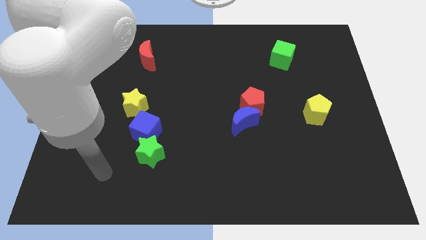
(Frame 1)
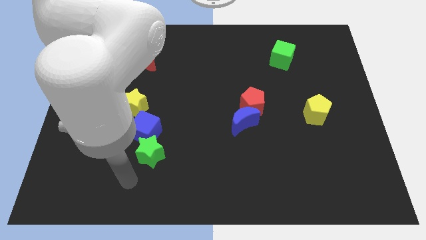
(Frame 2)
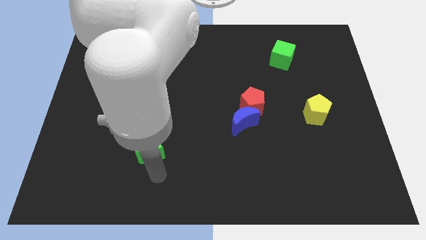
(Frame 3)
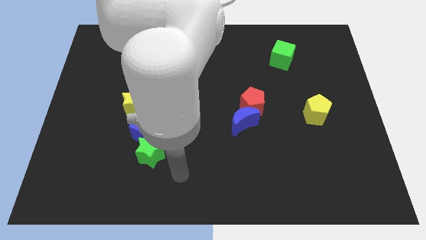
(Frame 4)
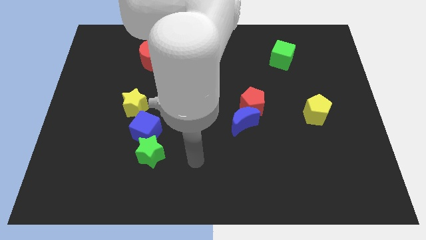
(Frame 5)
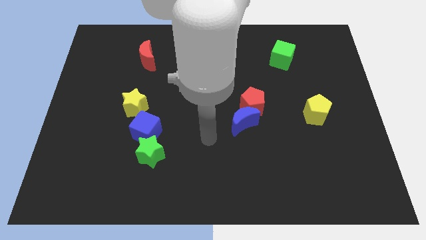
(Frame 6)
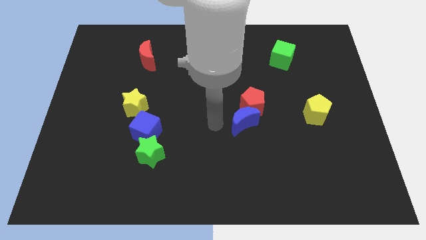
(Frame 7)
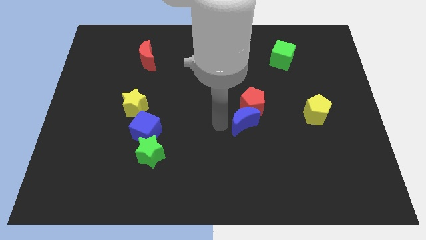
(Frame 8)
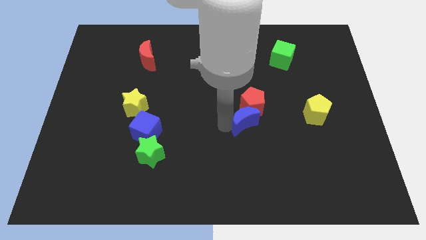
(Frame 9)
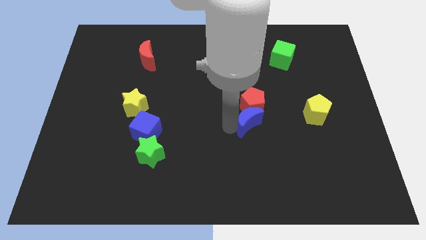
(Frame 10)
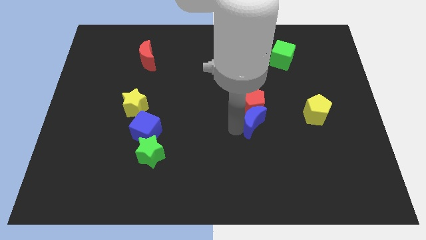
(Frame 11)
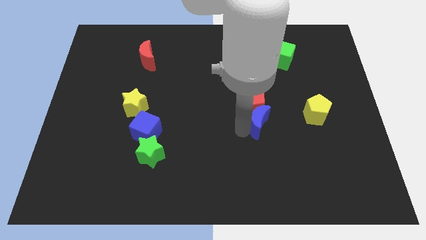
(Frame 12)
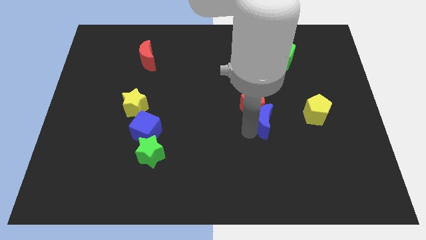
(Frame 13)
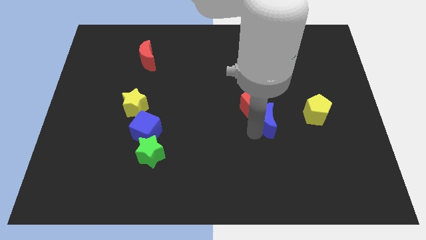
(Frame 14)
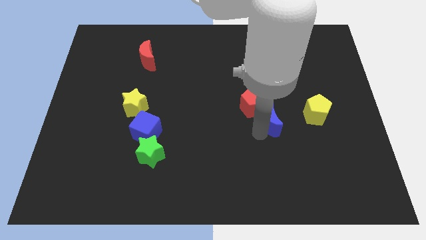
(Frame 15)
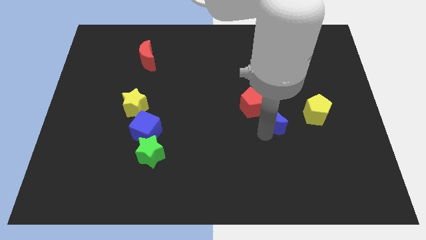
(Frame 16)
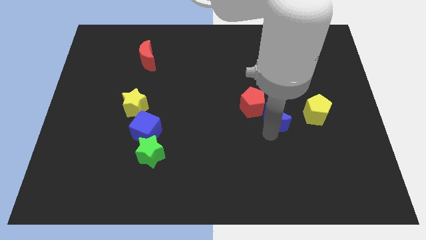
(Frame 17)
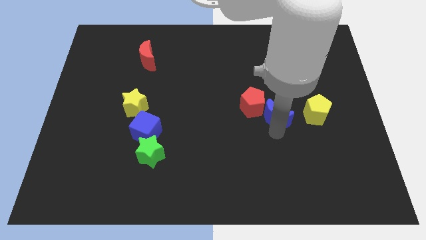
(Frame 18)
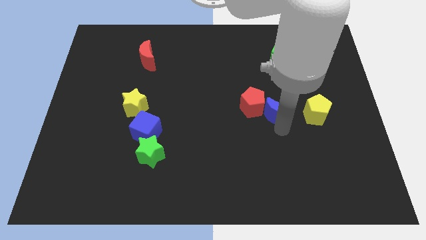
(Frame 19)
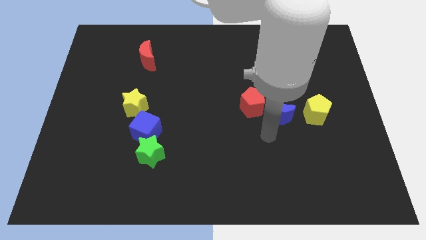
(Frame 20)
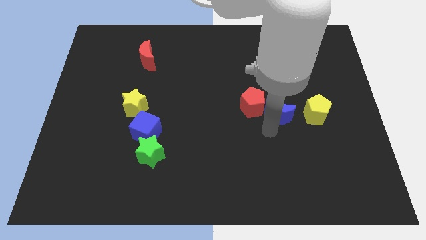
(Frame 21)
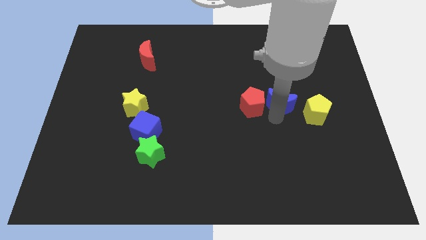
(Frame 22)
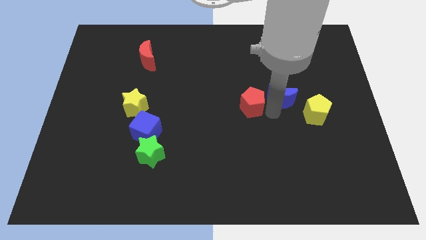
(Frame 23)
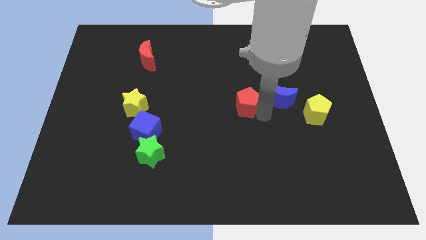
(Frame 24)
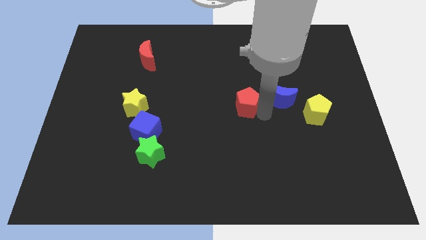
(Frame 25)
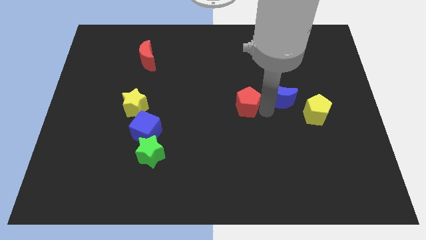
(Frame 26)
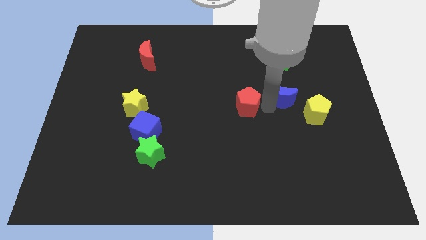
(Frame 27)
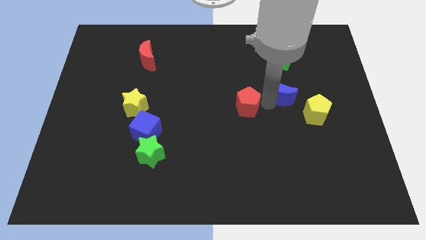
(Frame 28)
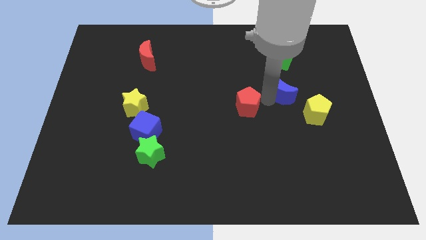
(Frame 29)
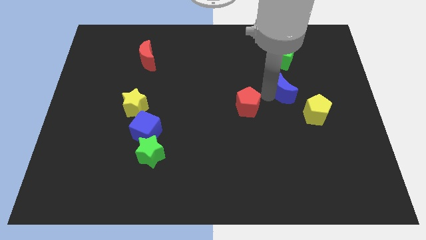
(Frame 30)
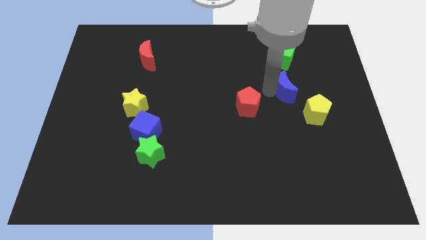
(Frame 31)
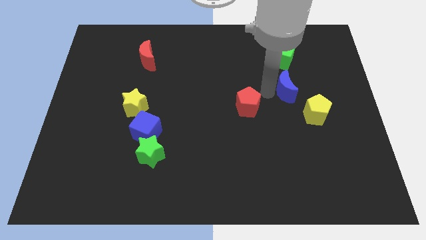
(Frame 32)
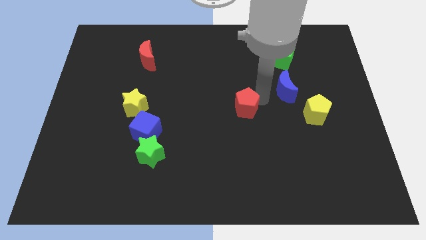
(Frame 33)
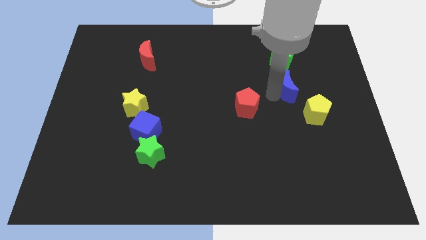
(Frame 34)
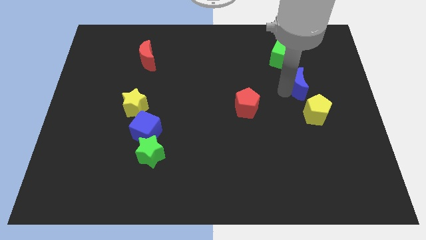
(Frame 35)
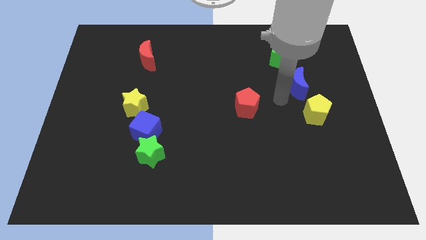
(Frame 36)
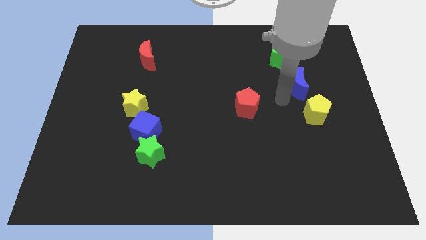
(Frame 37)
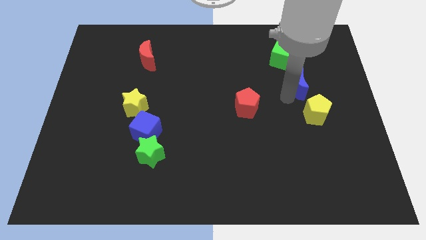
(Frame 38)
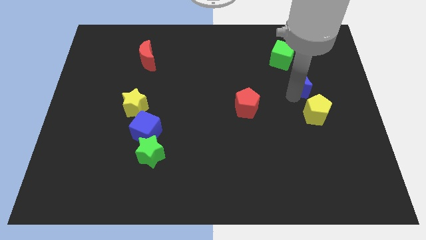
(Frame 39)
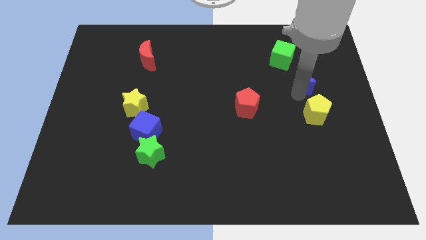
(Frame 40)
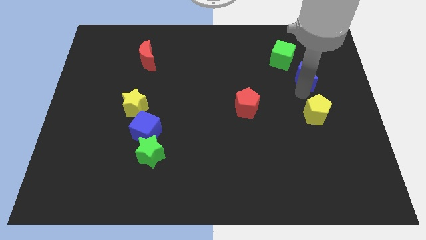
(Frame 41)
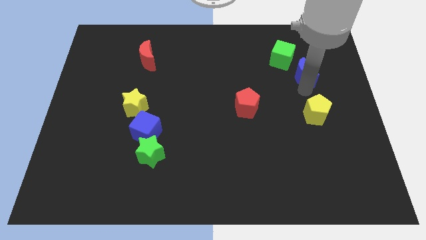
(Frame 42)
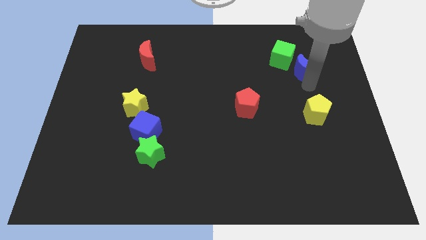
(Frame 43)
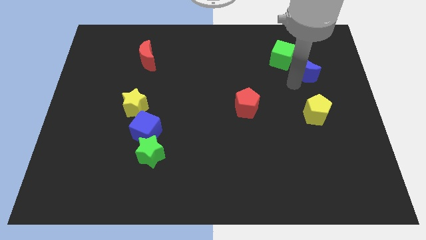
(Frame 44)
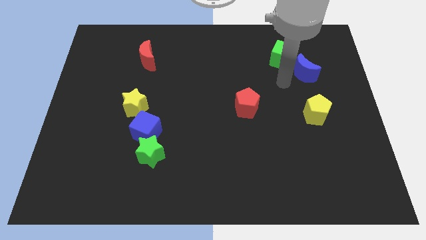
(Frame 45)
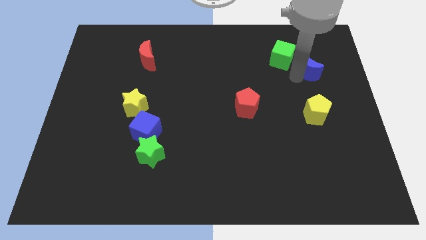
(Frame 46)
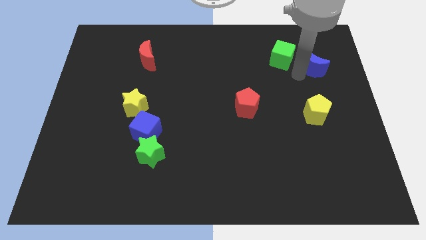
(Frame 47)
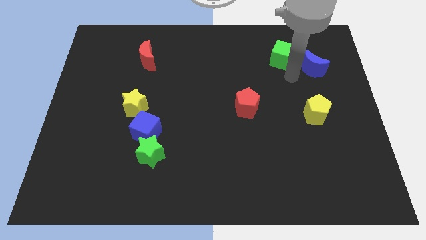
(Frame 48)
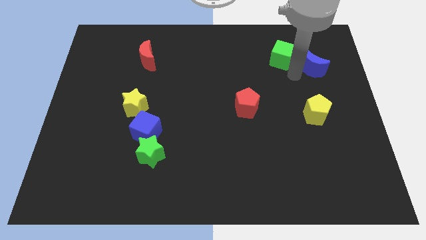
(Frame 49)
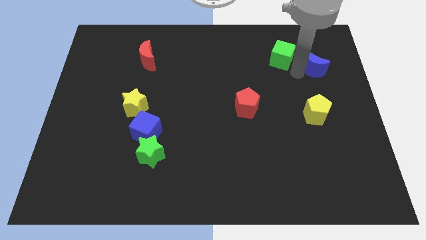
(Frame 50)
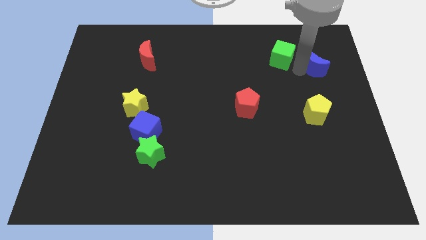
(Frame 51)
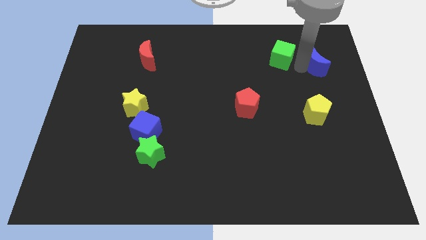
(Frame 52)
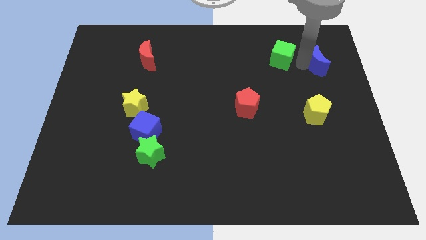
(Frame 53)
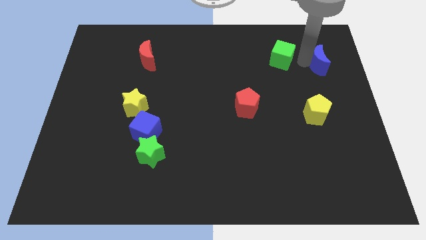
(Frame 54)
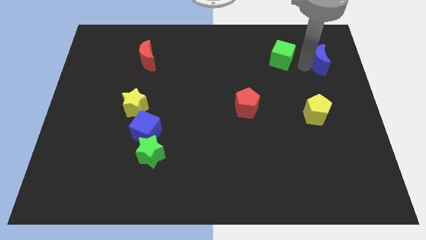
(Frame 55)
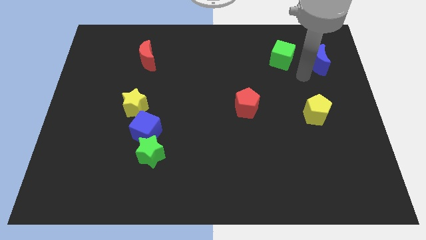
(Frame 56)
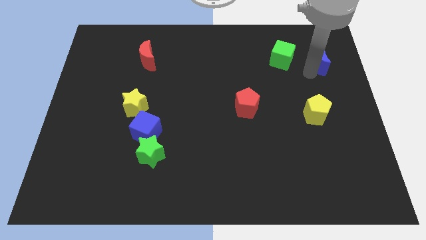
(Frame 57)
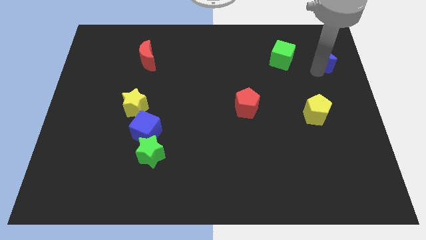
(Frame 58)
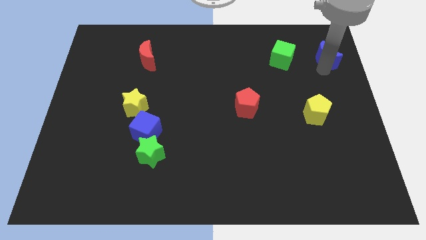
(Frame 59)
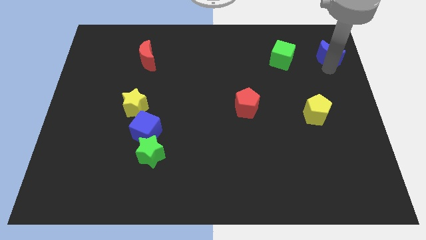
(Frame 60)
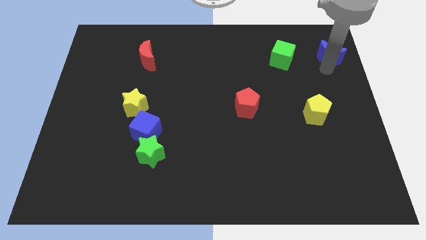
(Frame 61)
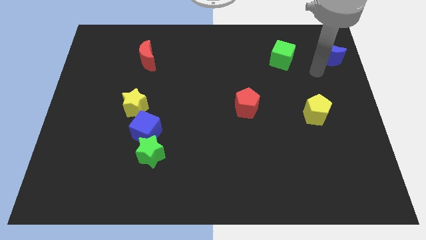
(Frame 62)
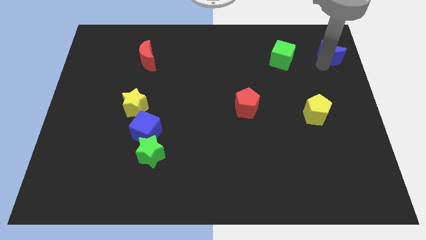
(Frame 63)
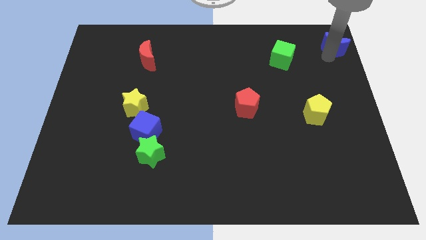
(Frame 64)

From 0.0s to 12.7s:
push the blue moon to the top right corner
